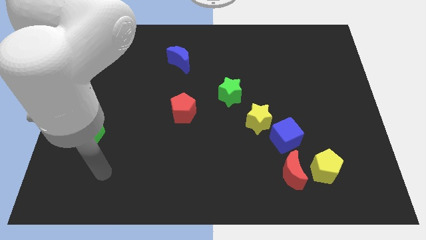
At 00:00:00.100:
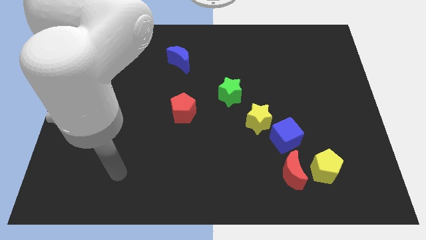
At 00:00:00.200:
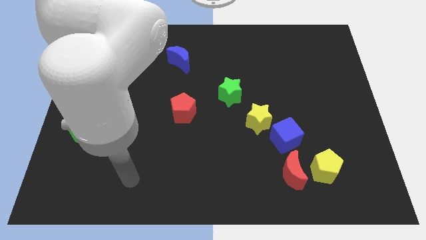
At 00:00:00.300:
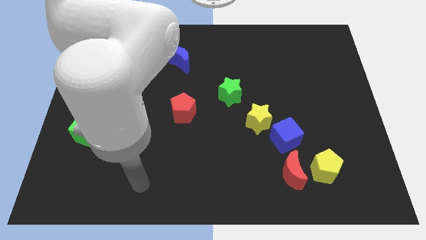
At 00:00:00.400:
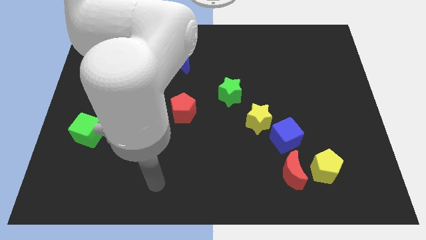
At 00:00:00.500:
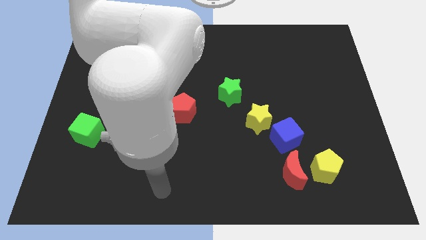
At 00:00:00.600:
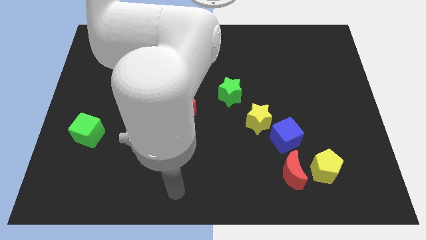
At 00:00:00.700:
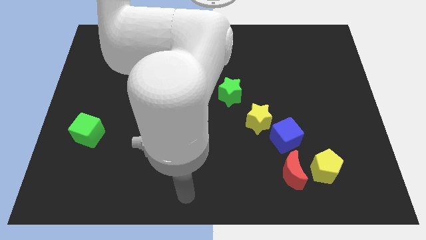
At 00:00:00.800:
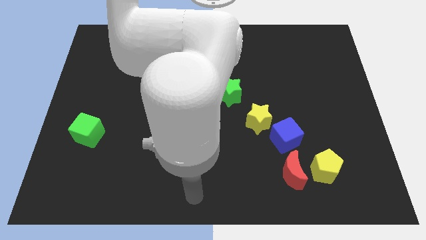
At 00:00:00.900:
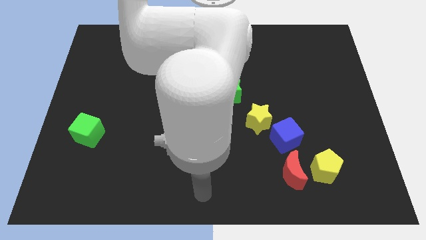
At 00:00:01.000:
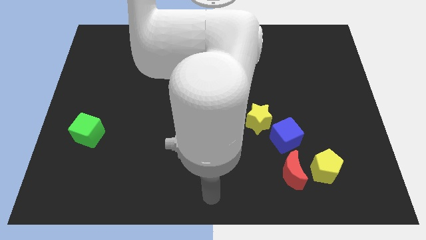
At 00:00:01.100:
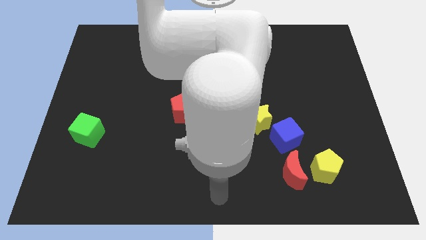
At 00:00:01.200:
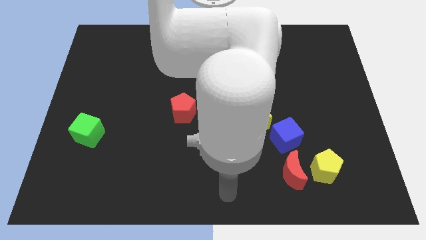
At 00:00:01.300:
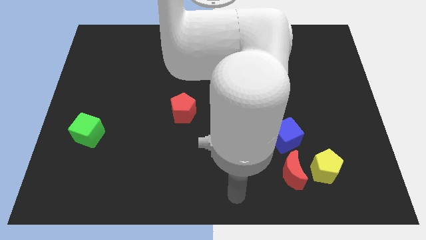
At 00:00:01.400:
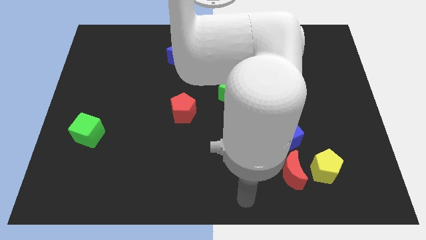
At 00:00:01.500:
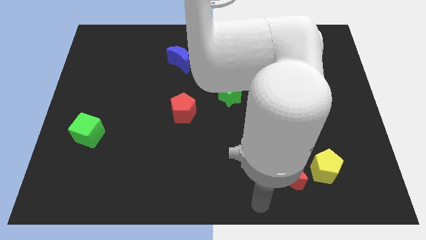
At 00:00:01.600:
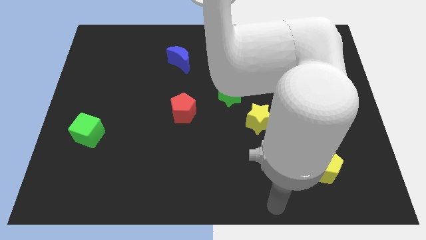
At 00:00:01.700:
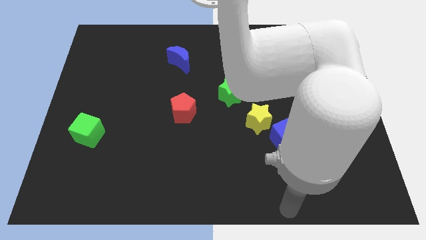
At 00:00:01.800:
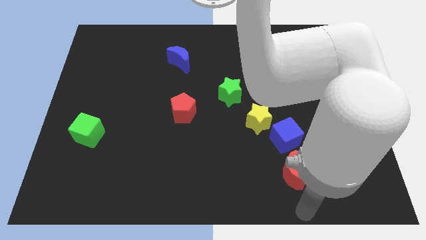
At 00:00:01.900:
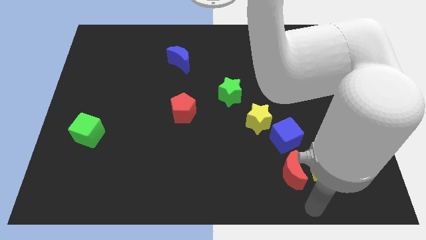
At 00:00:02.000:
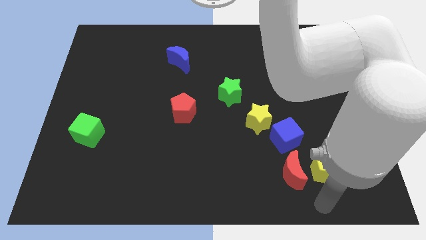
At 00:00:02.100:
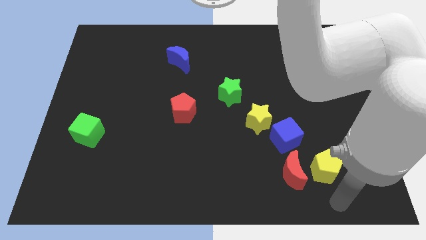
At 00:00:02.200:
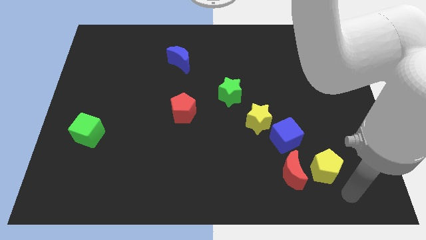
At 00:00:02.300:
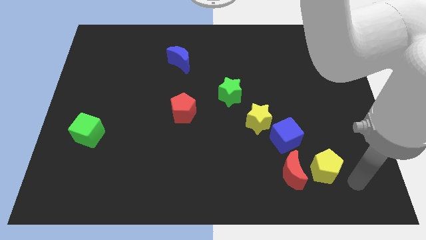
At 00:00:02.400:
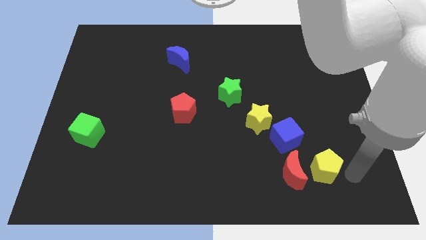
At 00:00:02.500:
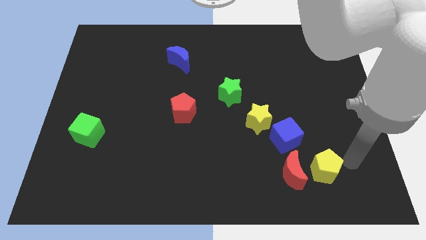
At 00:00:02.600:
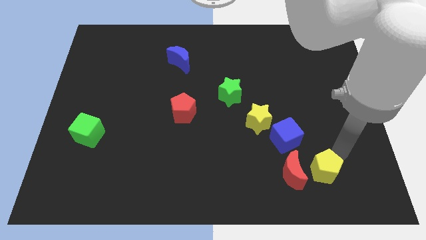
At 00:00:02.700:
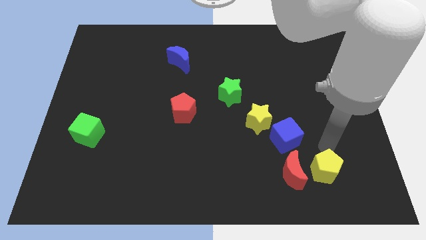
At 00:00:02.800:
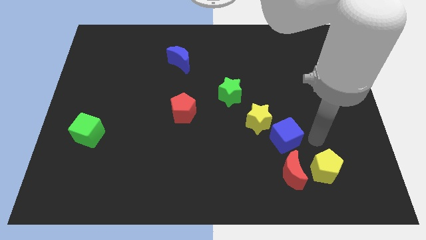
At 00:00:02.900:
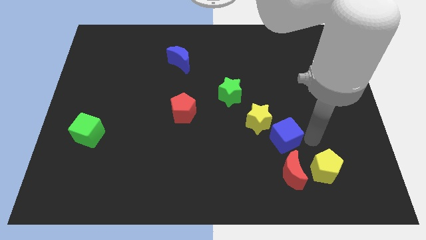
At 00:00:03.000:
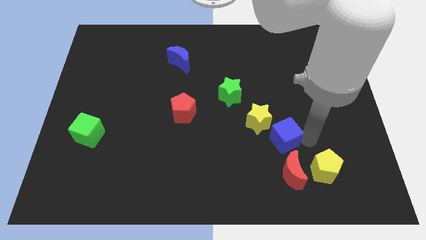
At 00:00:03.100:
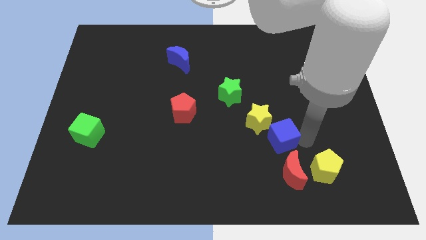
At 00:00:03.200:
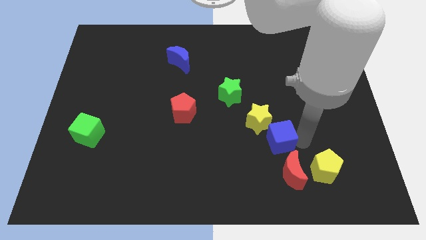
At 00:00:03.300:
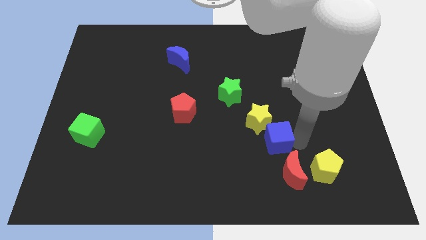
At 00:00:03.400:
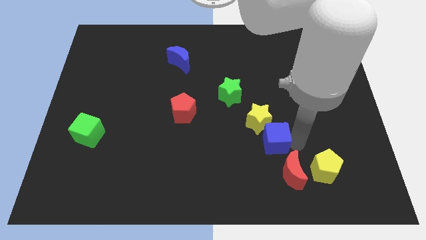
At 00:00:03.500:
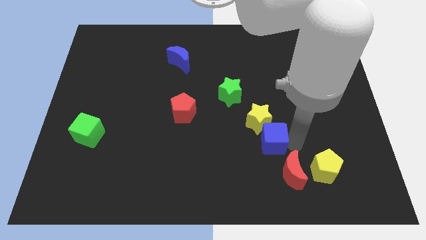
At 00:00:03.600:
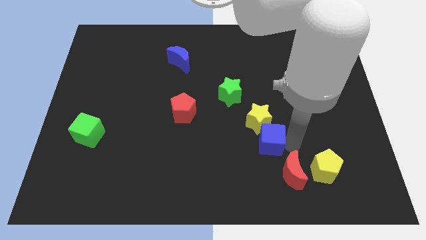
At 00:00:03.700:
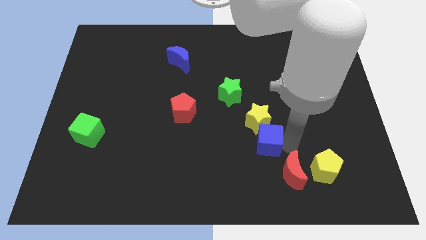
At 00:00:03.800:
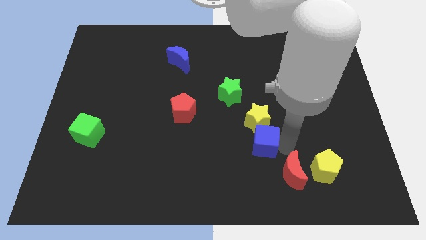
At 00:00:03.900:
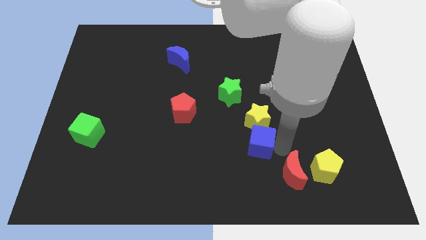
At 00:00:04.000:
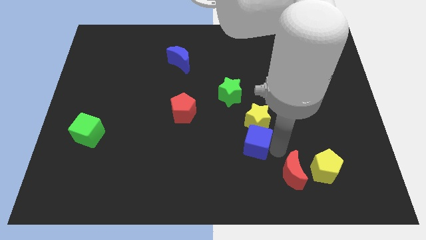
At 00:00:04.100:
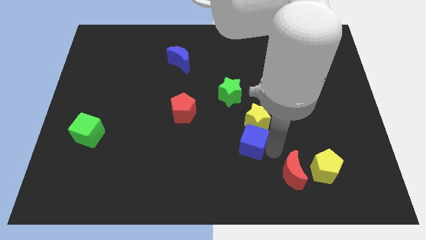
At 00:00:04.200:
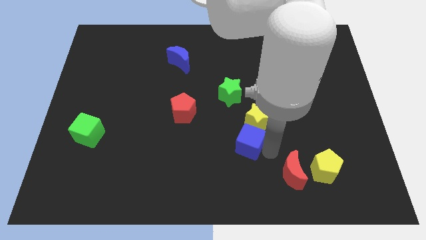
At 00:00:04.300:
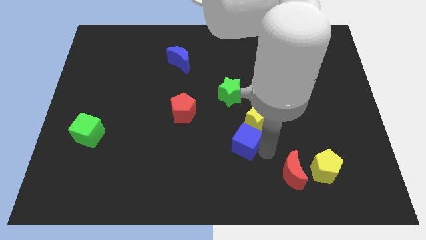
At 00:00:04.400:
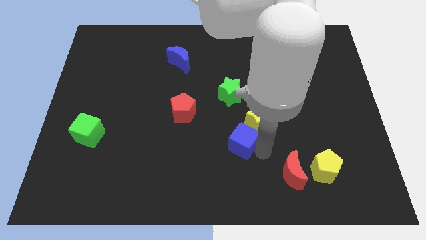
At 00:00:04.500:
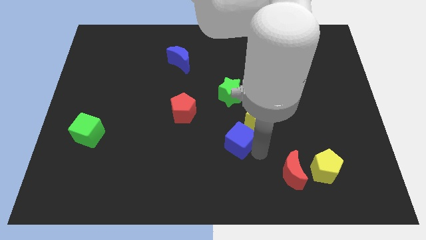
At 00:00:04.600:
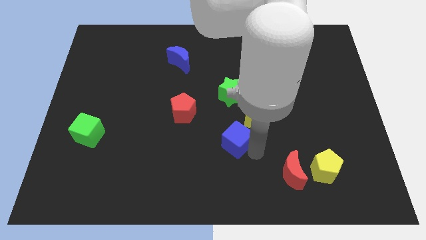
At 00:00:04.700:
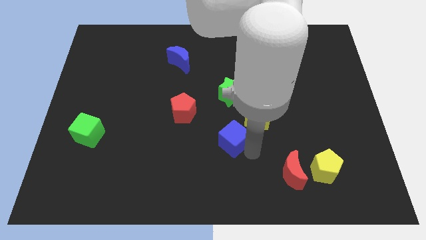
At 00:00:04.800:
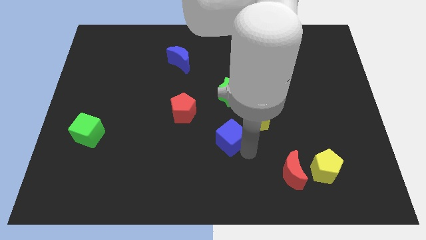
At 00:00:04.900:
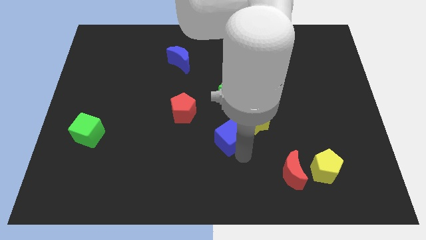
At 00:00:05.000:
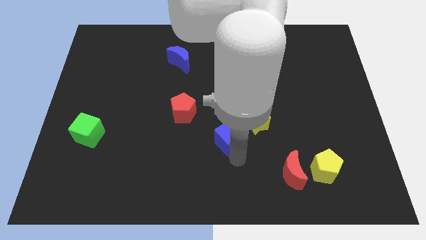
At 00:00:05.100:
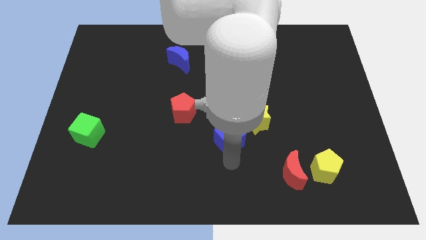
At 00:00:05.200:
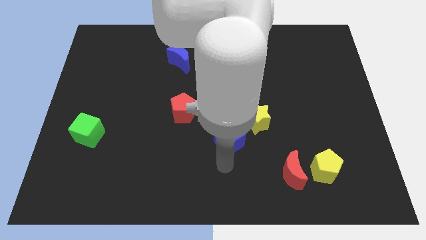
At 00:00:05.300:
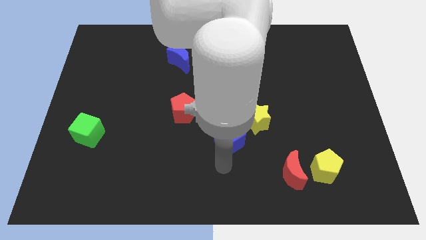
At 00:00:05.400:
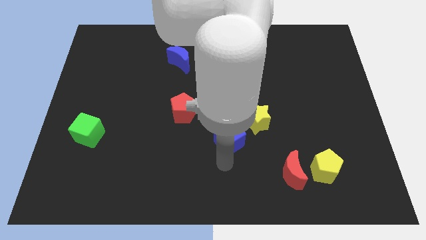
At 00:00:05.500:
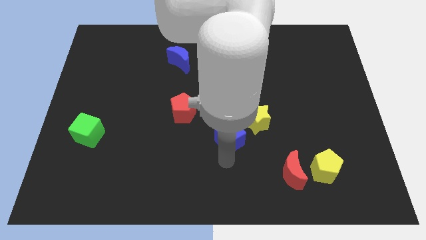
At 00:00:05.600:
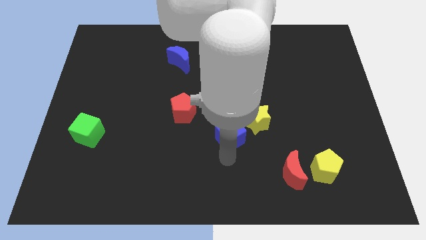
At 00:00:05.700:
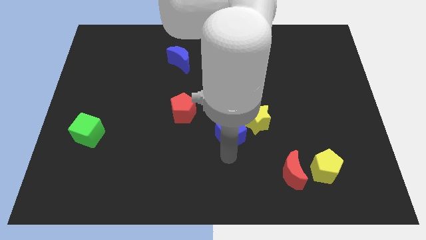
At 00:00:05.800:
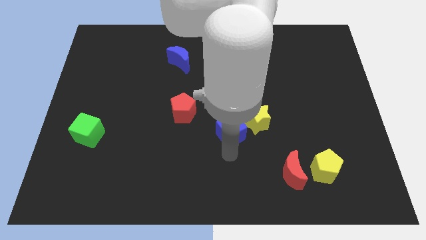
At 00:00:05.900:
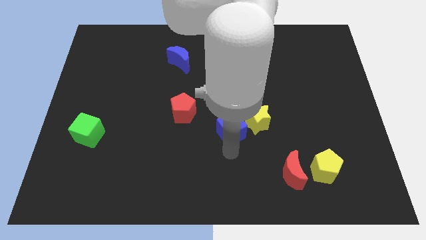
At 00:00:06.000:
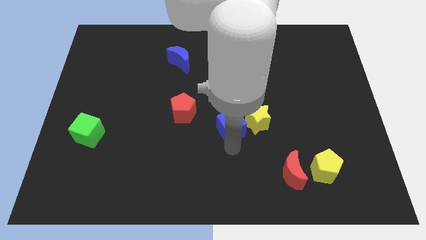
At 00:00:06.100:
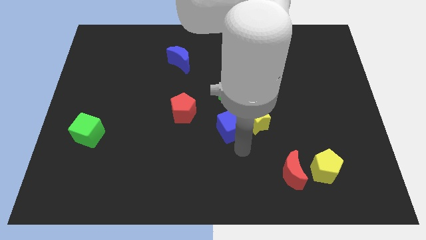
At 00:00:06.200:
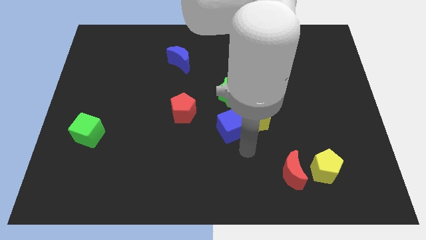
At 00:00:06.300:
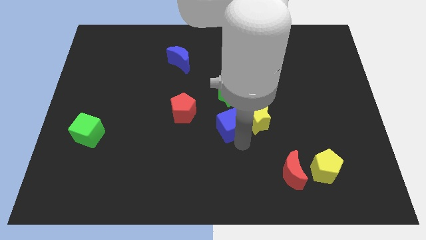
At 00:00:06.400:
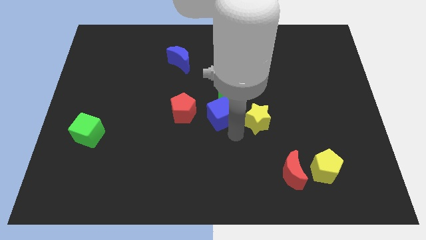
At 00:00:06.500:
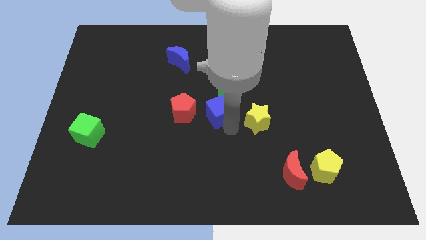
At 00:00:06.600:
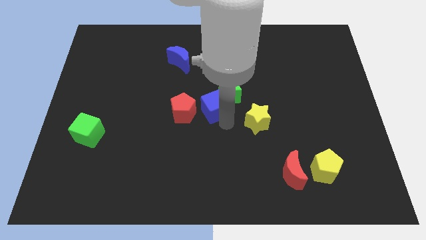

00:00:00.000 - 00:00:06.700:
slide the blue cube to the top right of the red pentagon
